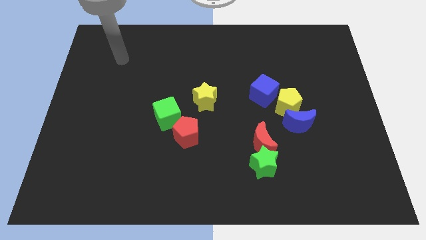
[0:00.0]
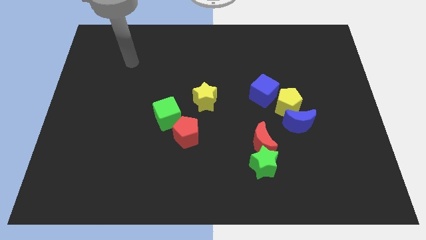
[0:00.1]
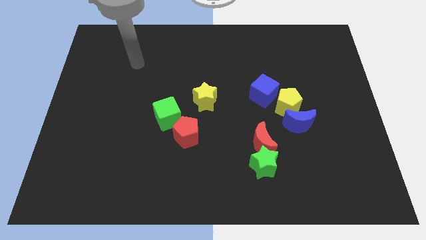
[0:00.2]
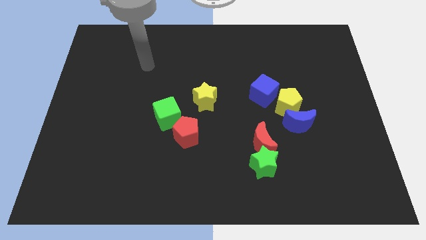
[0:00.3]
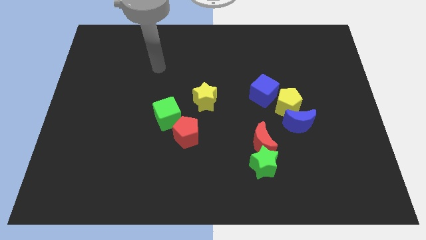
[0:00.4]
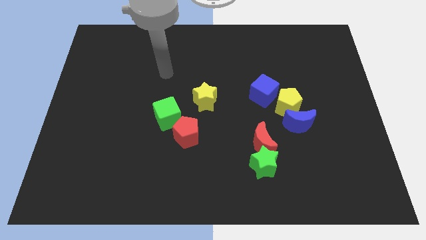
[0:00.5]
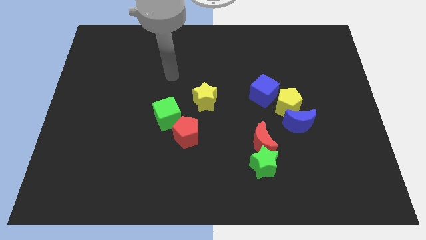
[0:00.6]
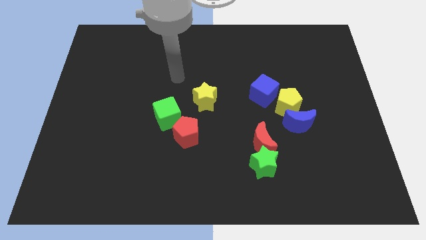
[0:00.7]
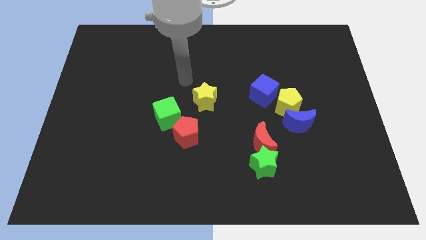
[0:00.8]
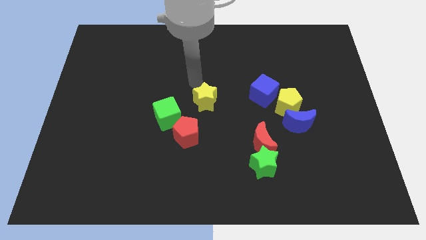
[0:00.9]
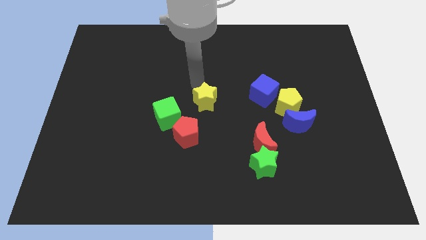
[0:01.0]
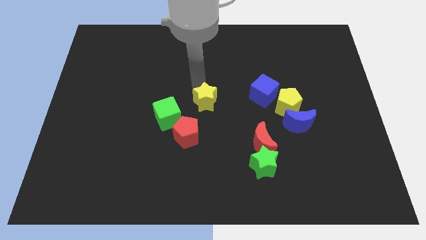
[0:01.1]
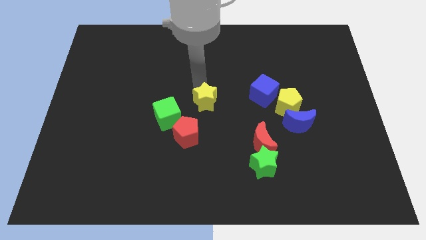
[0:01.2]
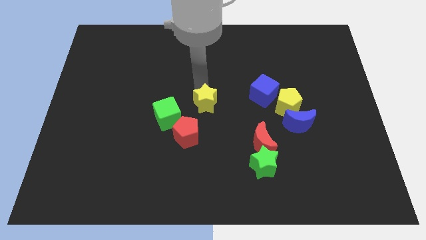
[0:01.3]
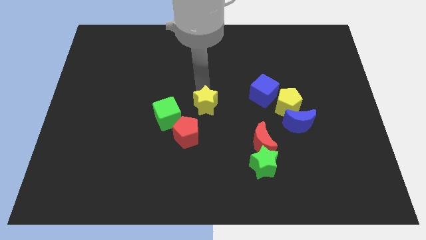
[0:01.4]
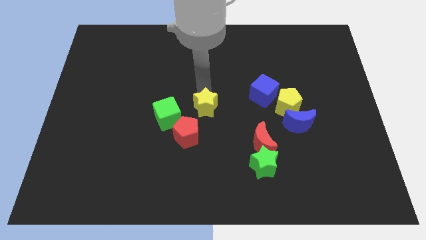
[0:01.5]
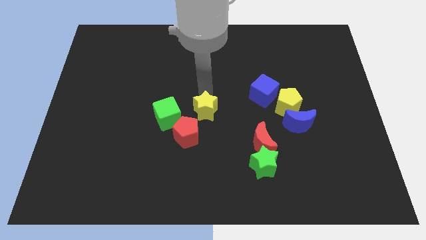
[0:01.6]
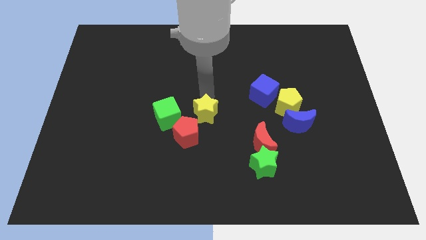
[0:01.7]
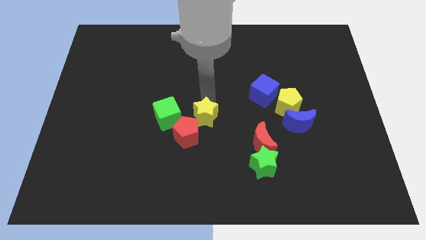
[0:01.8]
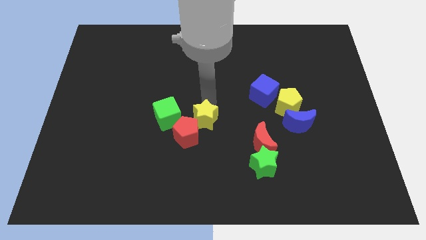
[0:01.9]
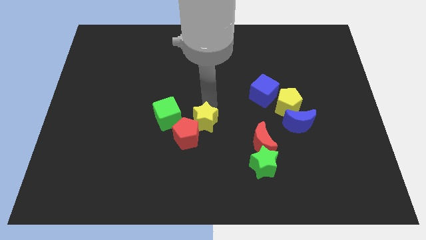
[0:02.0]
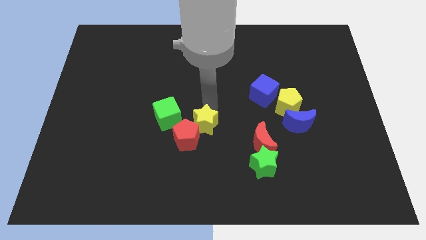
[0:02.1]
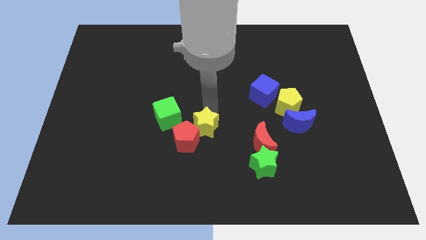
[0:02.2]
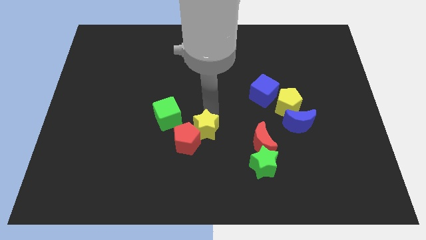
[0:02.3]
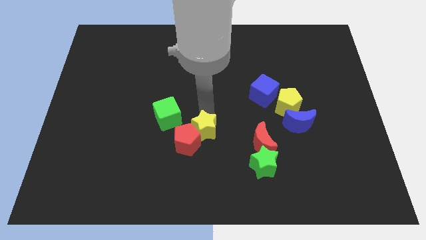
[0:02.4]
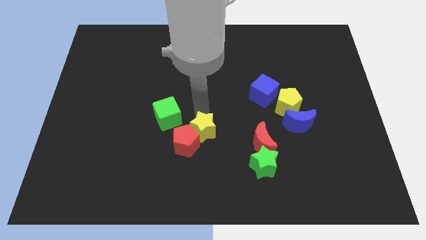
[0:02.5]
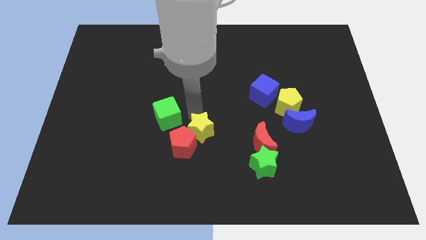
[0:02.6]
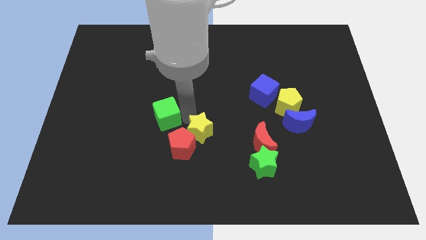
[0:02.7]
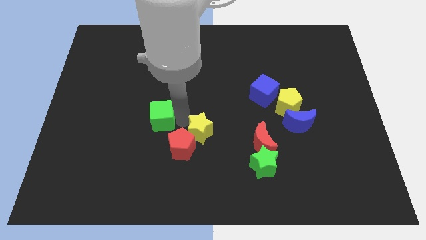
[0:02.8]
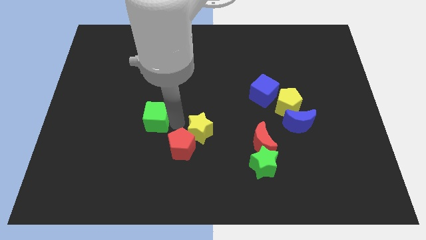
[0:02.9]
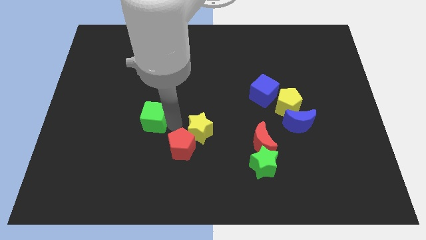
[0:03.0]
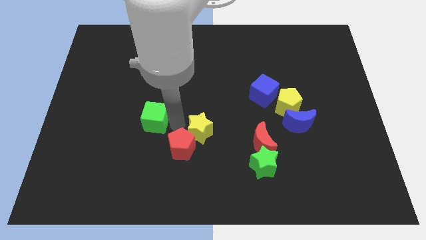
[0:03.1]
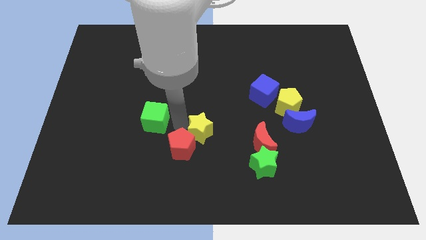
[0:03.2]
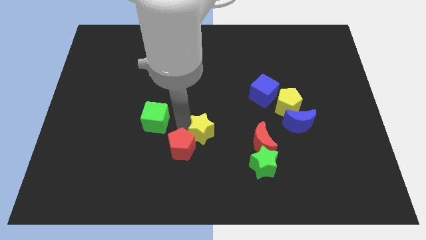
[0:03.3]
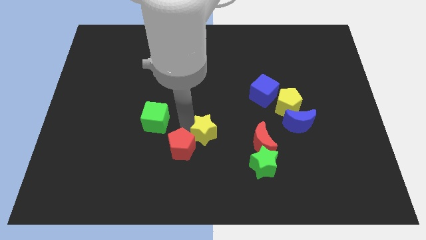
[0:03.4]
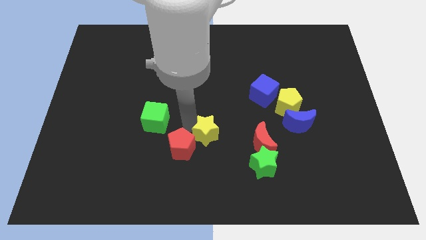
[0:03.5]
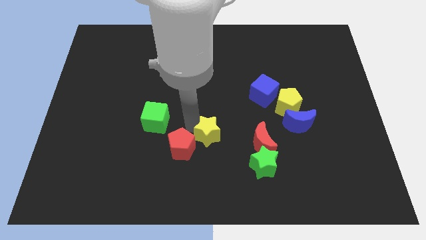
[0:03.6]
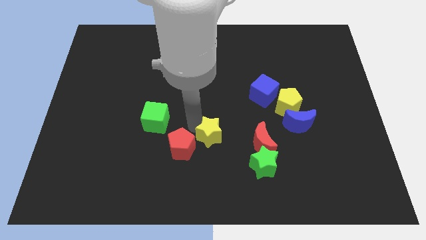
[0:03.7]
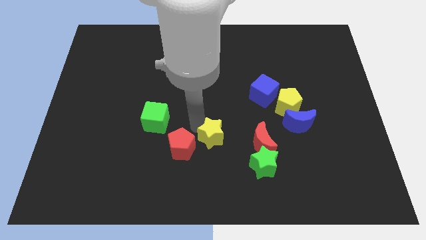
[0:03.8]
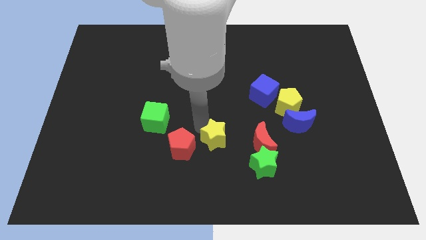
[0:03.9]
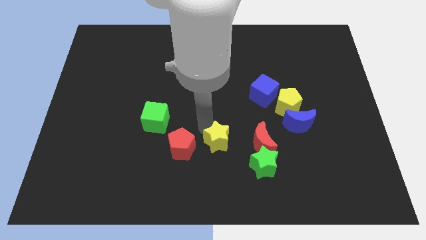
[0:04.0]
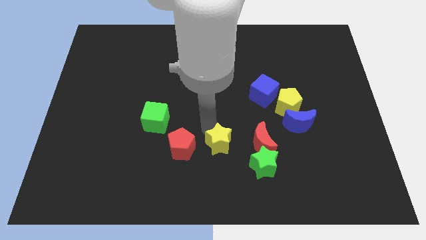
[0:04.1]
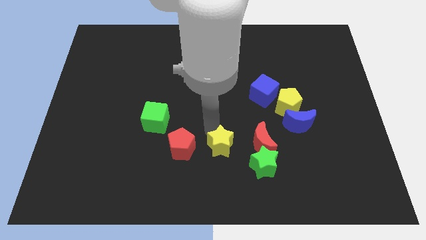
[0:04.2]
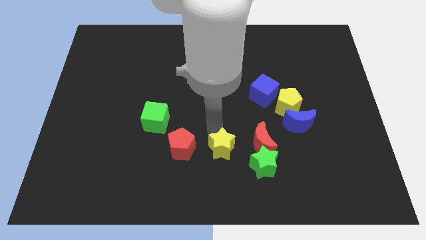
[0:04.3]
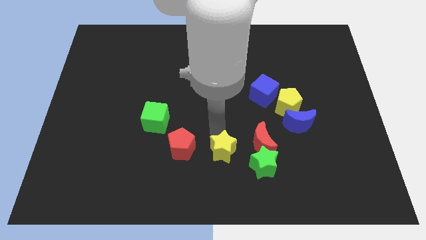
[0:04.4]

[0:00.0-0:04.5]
move the yellow star to the bottom left side of the red moon

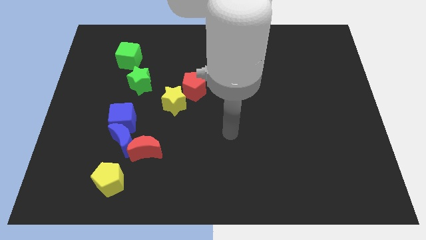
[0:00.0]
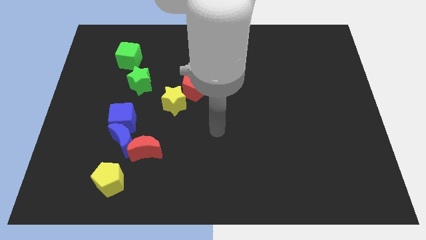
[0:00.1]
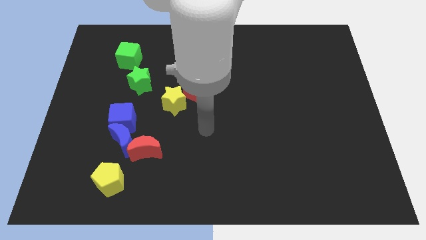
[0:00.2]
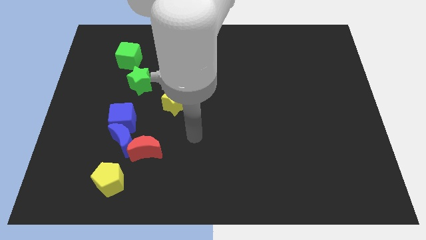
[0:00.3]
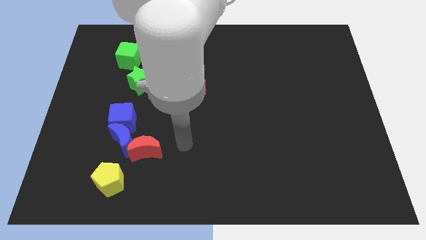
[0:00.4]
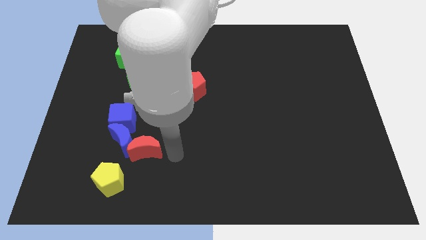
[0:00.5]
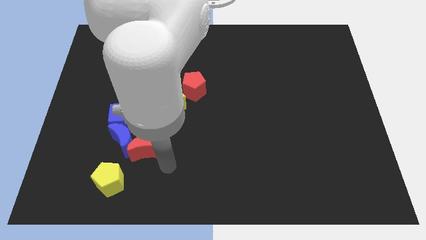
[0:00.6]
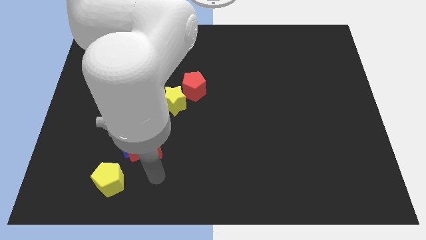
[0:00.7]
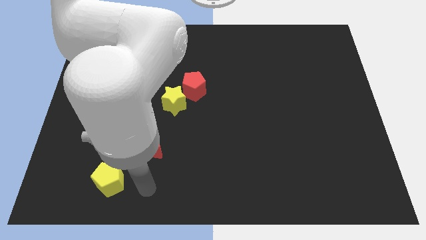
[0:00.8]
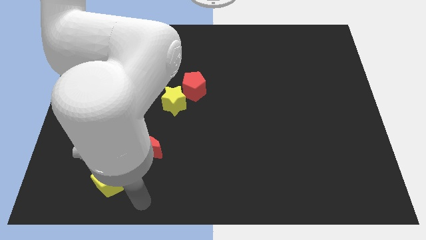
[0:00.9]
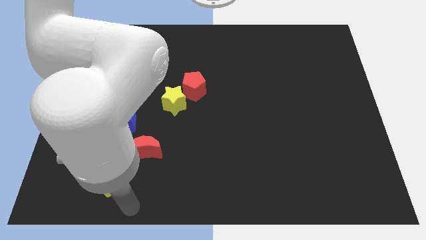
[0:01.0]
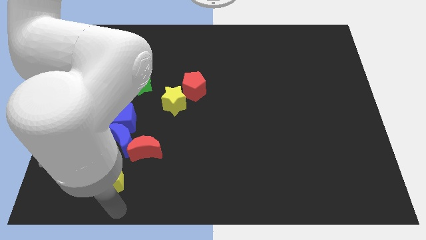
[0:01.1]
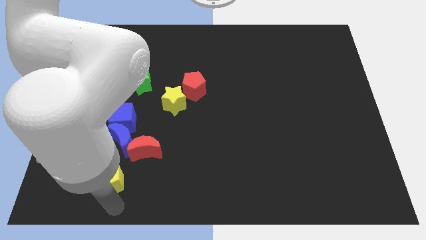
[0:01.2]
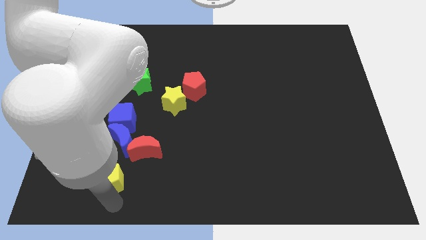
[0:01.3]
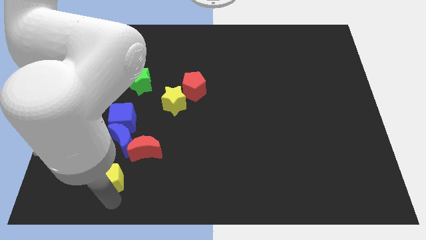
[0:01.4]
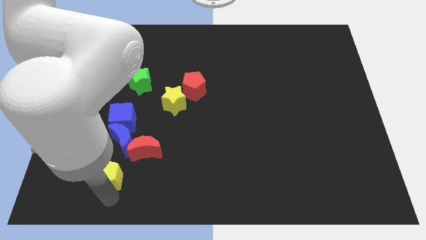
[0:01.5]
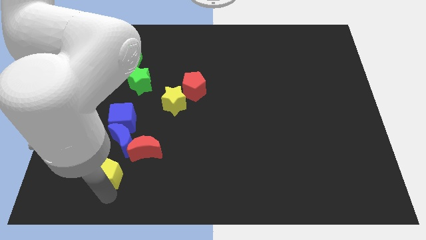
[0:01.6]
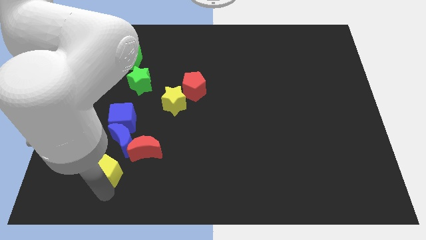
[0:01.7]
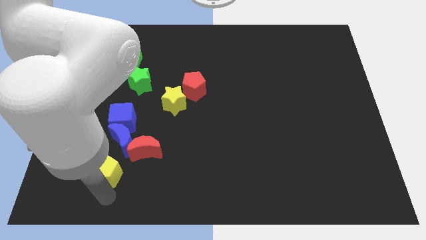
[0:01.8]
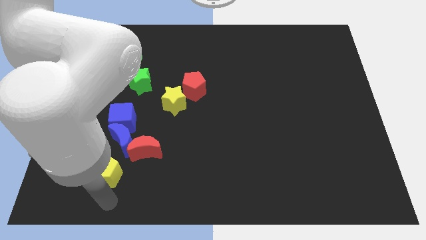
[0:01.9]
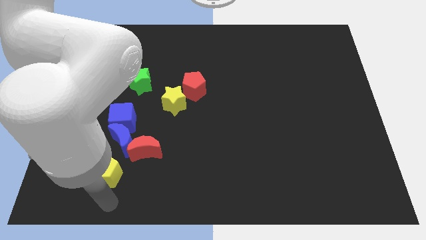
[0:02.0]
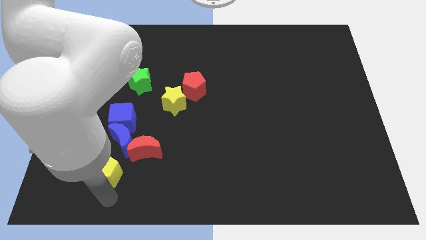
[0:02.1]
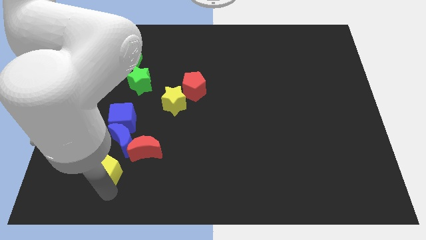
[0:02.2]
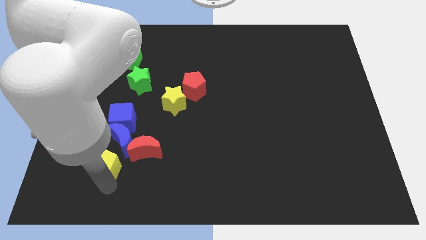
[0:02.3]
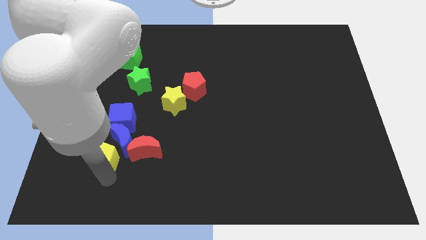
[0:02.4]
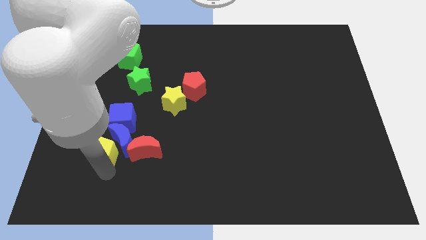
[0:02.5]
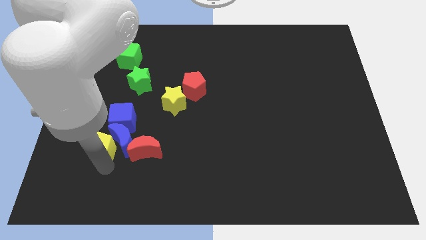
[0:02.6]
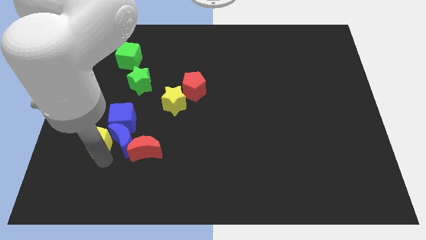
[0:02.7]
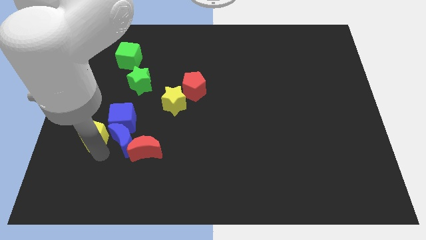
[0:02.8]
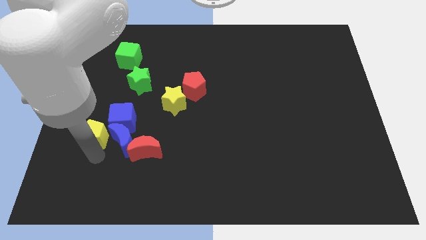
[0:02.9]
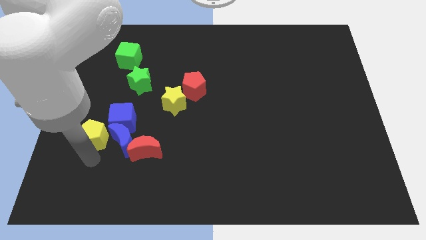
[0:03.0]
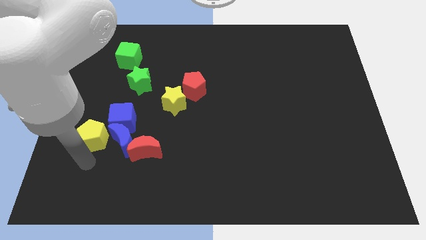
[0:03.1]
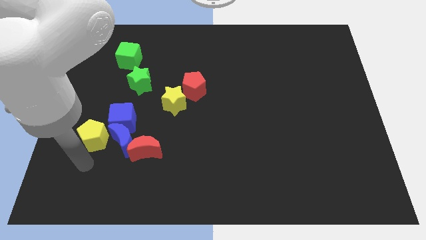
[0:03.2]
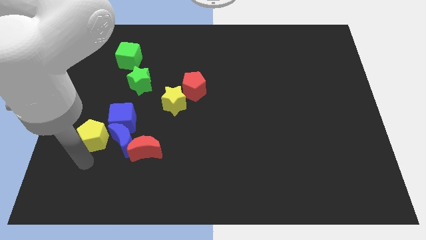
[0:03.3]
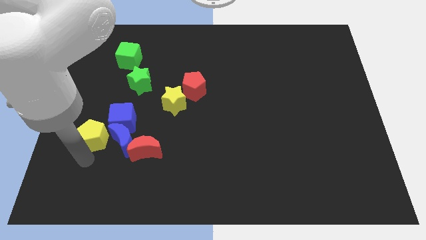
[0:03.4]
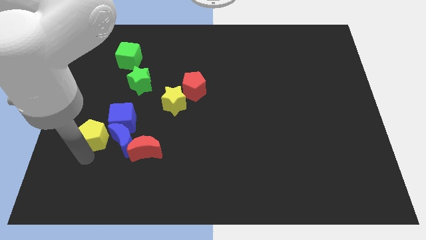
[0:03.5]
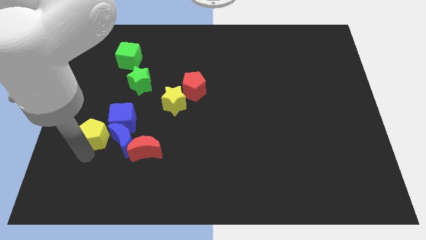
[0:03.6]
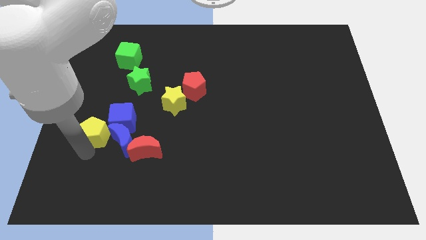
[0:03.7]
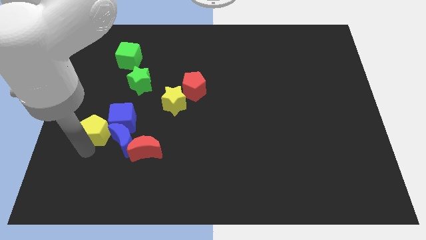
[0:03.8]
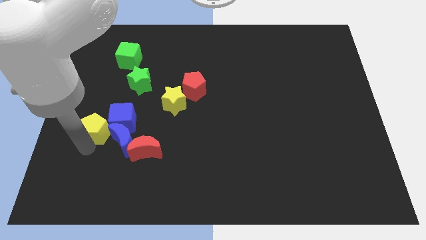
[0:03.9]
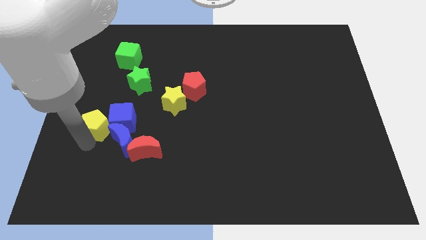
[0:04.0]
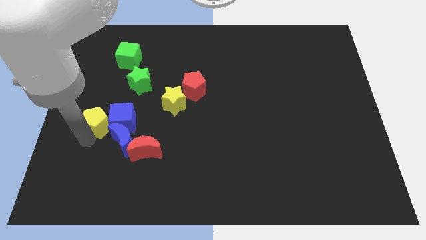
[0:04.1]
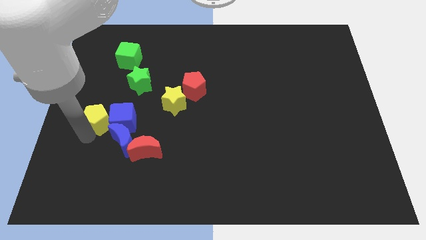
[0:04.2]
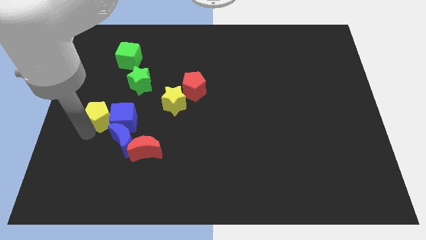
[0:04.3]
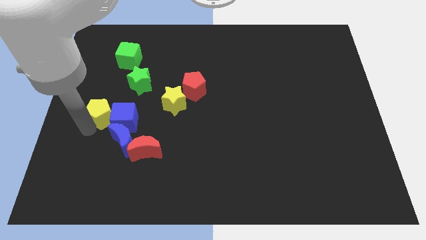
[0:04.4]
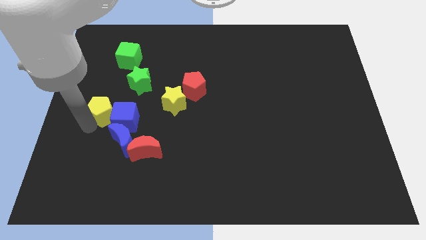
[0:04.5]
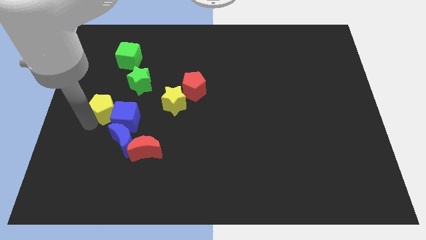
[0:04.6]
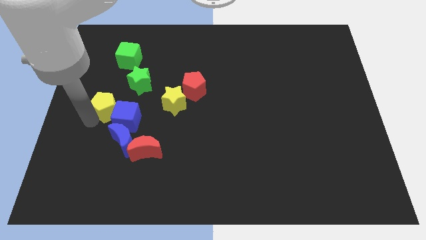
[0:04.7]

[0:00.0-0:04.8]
push the yellow pentagon to the left of the yellow star
